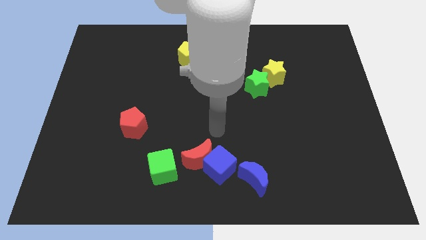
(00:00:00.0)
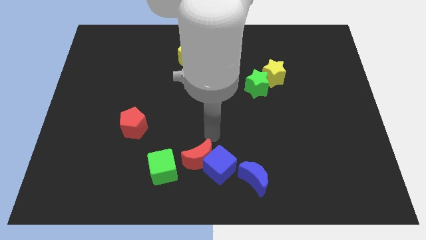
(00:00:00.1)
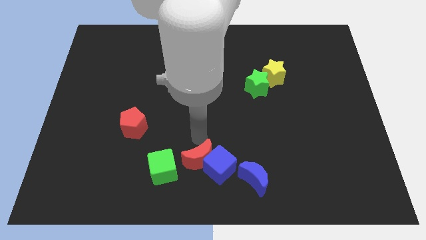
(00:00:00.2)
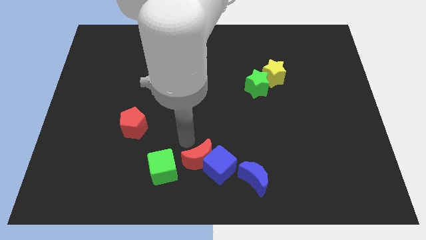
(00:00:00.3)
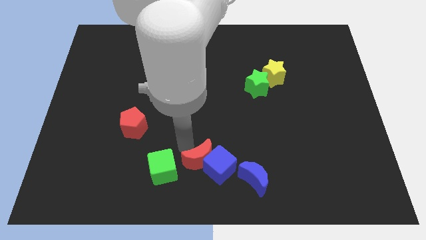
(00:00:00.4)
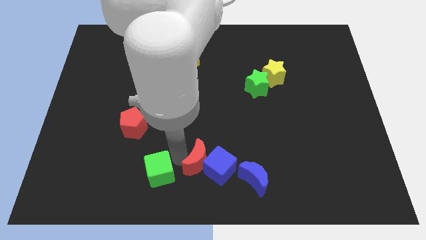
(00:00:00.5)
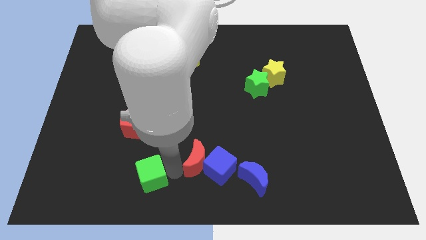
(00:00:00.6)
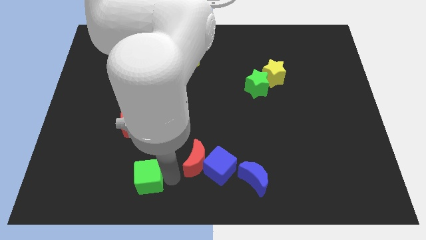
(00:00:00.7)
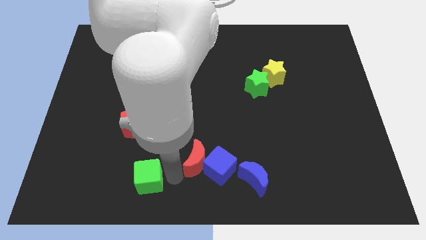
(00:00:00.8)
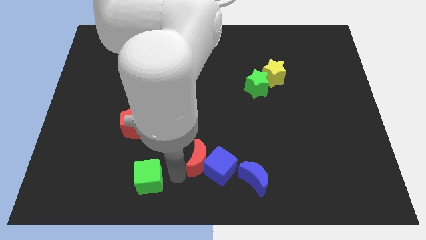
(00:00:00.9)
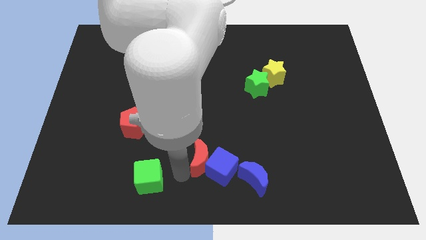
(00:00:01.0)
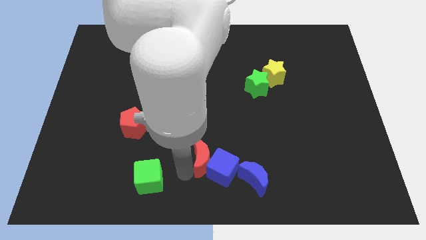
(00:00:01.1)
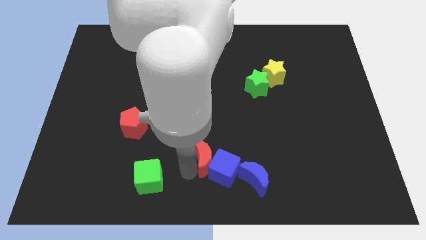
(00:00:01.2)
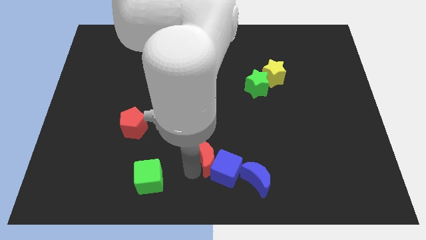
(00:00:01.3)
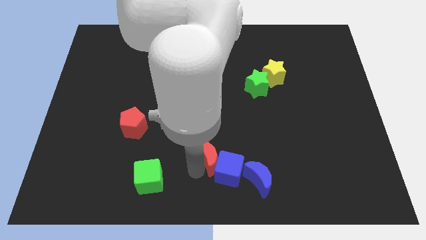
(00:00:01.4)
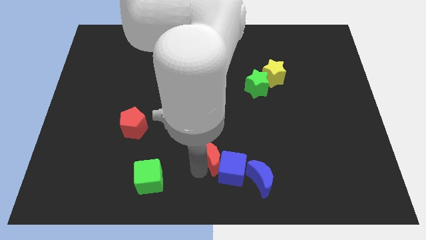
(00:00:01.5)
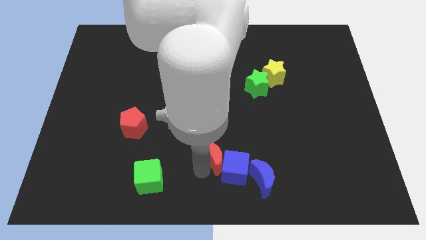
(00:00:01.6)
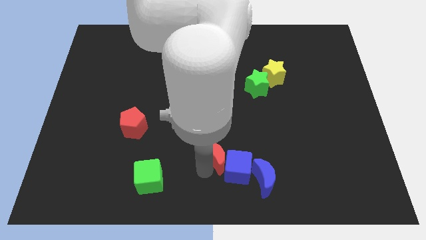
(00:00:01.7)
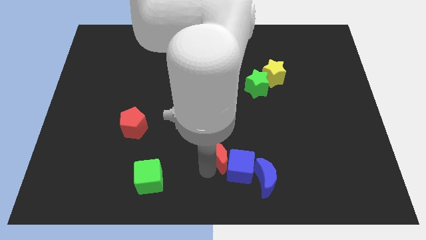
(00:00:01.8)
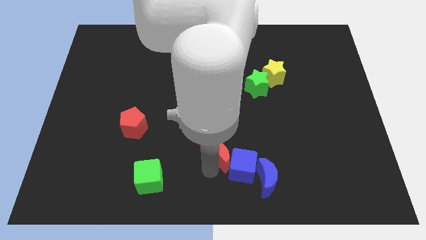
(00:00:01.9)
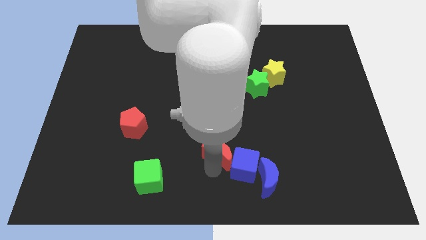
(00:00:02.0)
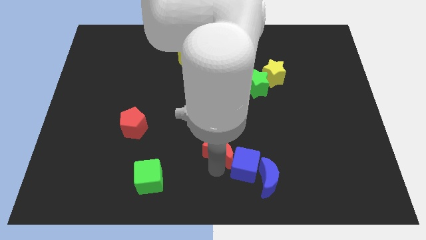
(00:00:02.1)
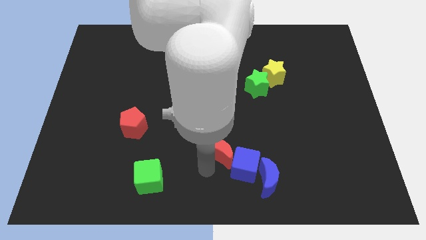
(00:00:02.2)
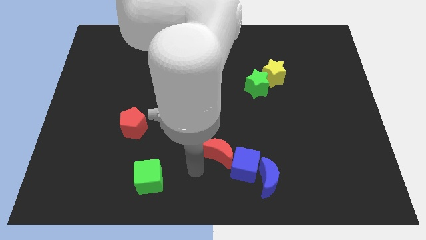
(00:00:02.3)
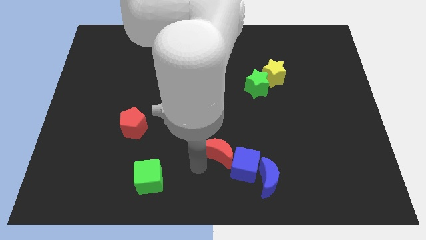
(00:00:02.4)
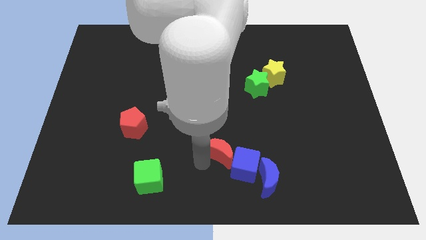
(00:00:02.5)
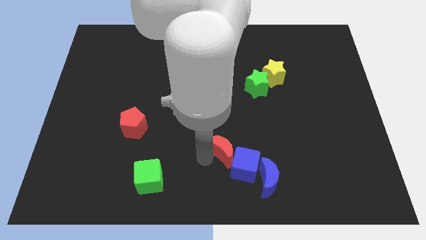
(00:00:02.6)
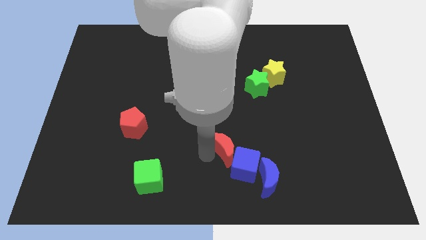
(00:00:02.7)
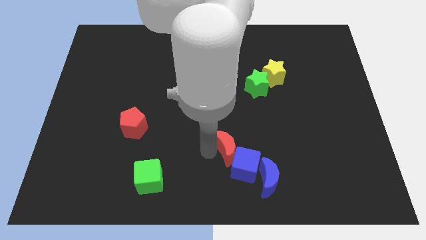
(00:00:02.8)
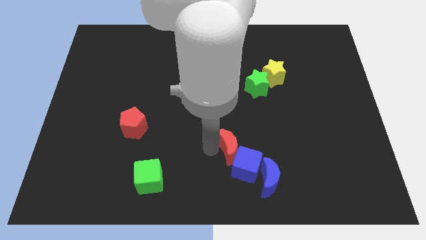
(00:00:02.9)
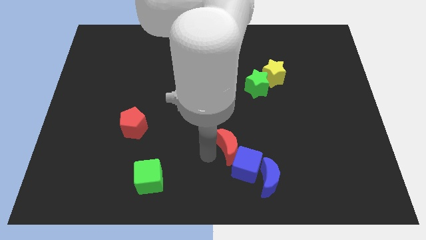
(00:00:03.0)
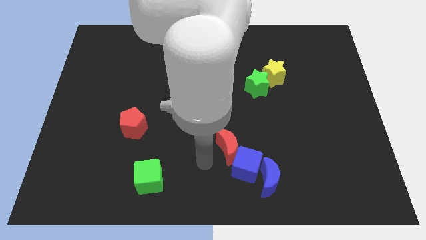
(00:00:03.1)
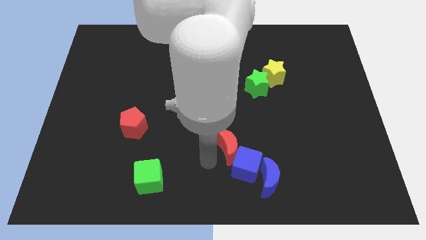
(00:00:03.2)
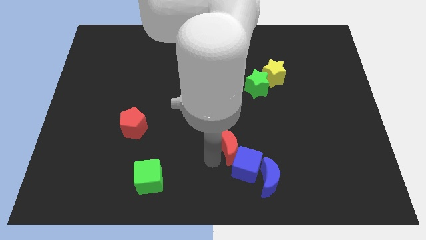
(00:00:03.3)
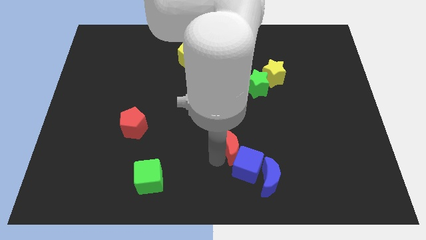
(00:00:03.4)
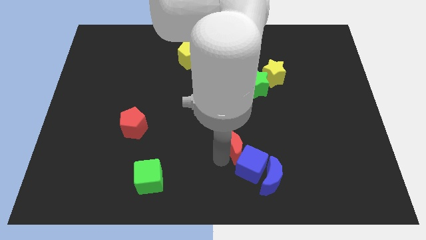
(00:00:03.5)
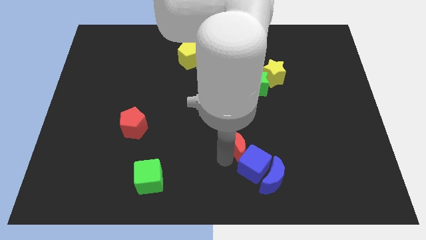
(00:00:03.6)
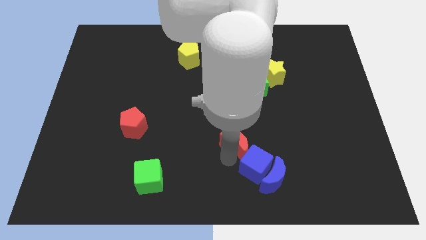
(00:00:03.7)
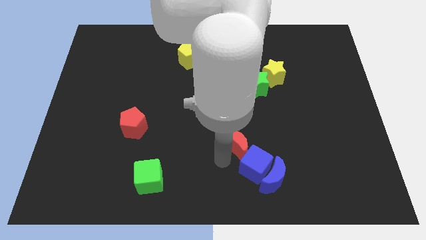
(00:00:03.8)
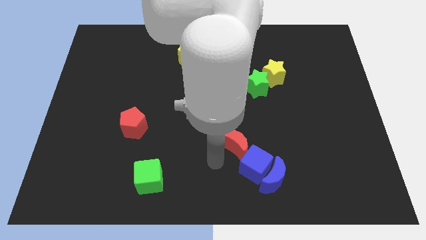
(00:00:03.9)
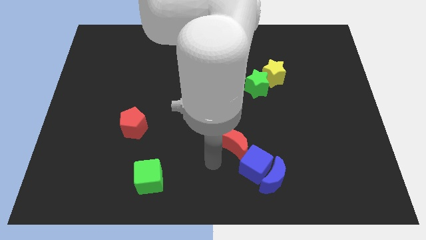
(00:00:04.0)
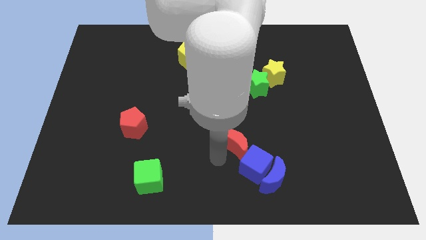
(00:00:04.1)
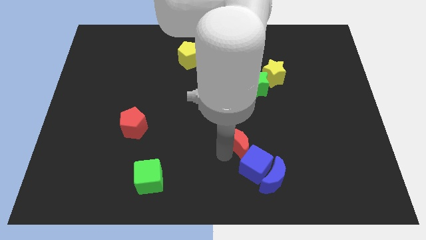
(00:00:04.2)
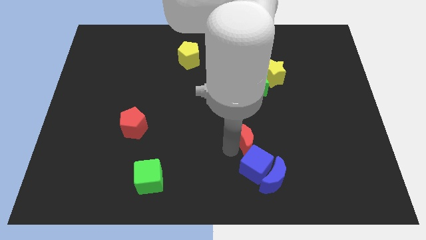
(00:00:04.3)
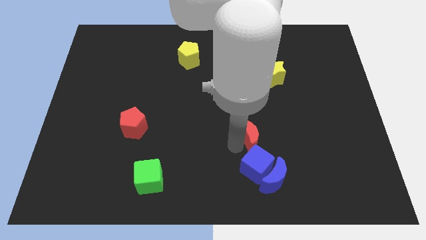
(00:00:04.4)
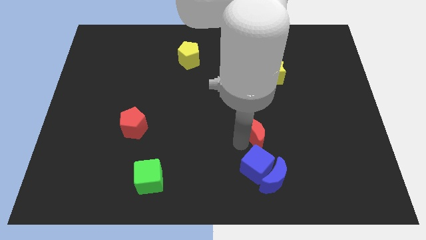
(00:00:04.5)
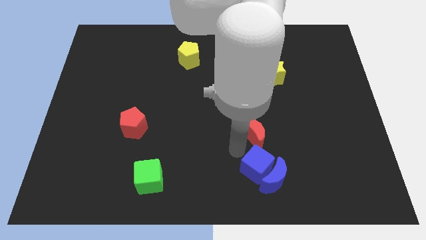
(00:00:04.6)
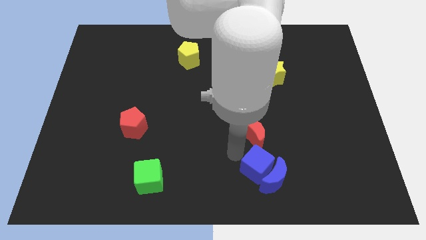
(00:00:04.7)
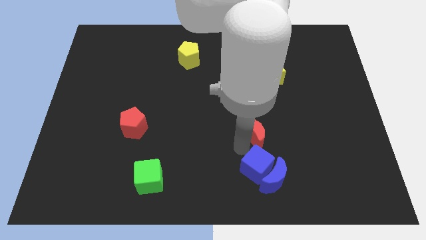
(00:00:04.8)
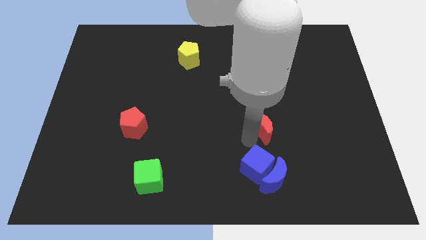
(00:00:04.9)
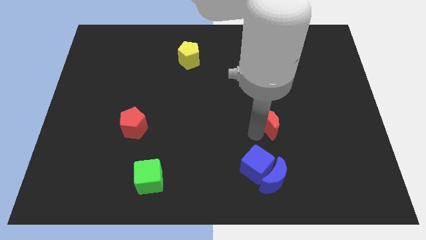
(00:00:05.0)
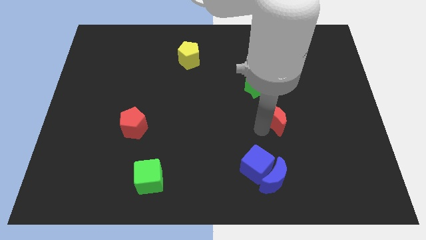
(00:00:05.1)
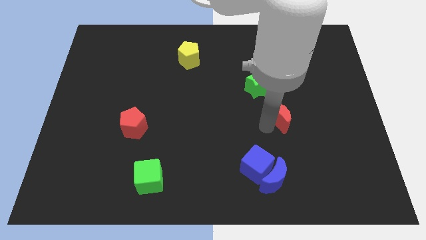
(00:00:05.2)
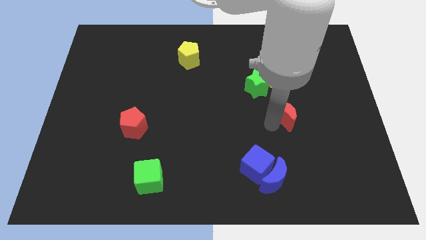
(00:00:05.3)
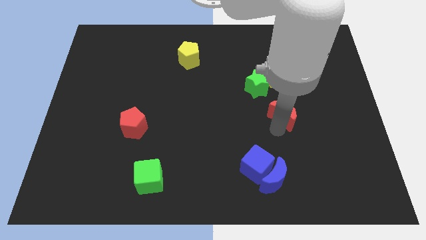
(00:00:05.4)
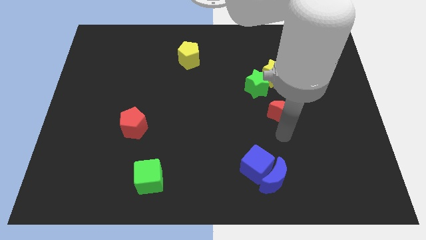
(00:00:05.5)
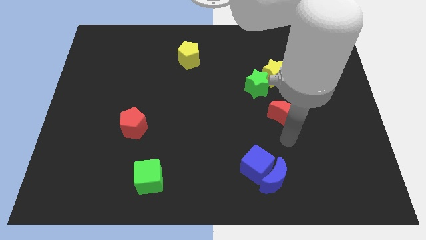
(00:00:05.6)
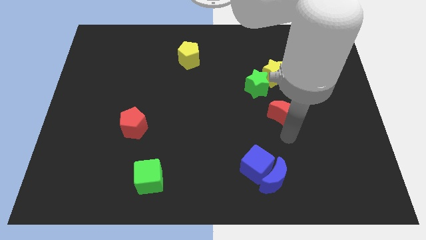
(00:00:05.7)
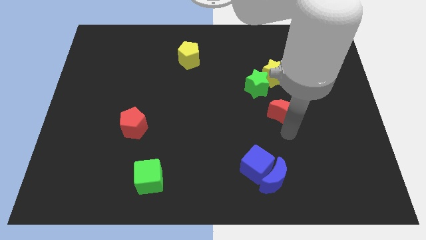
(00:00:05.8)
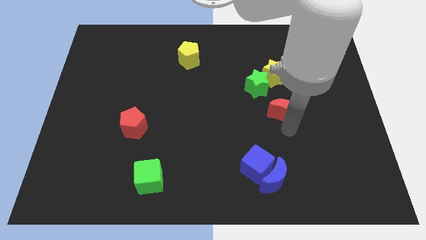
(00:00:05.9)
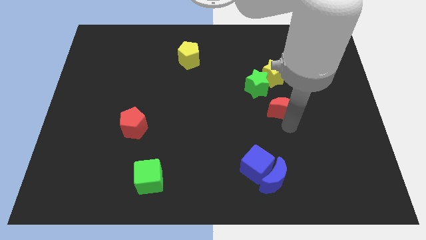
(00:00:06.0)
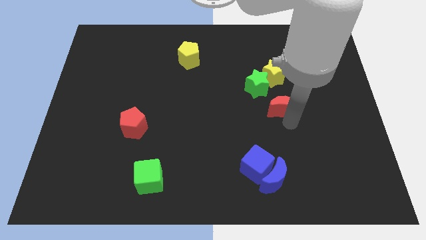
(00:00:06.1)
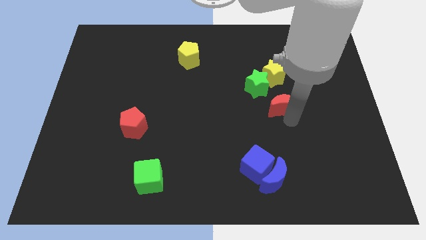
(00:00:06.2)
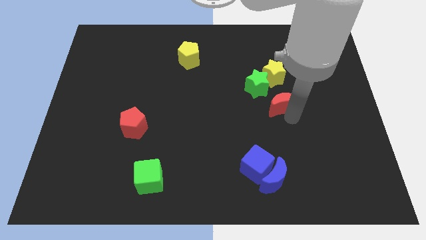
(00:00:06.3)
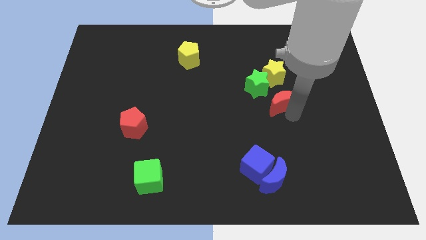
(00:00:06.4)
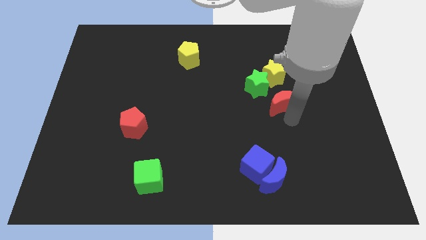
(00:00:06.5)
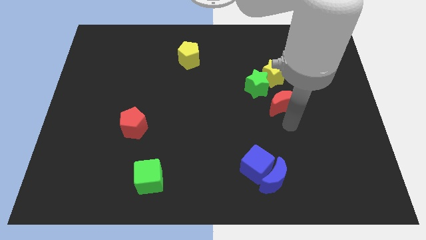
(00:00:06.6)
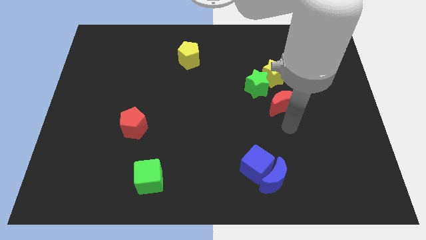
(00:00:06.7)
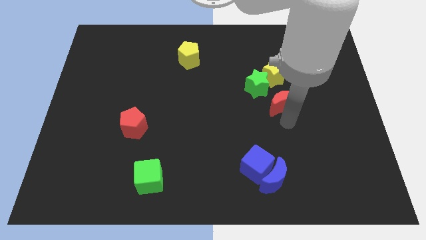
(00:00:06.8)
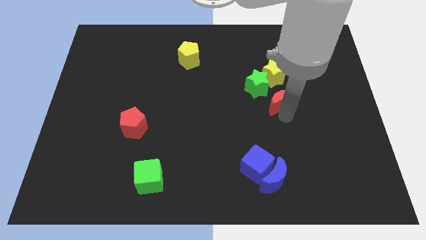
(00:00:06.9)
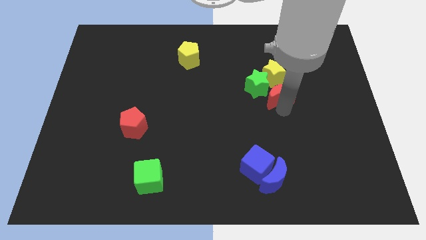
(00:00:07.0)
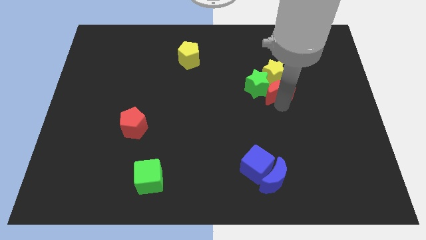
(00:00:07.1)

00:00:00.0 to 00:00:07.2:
slide the red moon next to the yellow star
